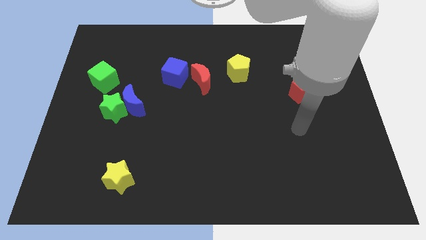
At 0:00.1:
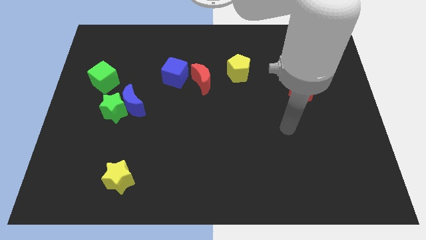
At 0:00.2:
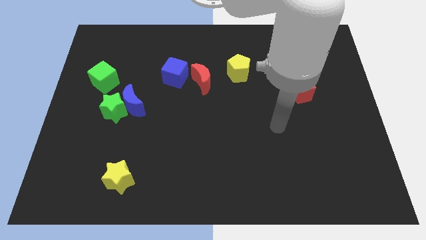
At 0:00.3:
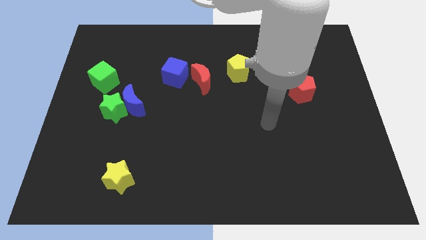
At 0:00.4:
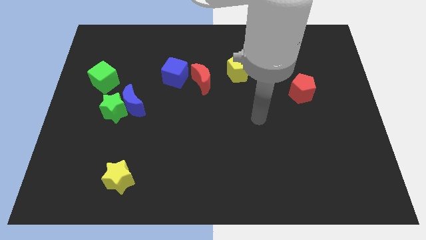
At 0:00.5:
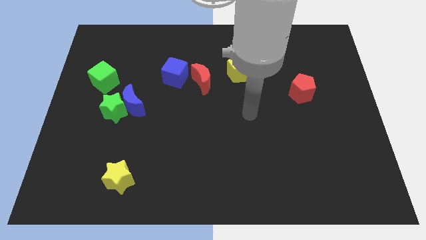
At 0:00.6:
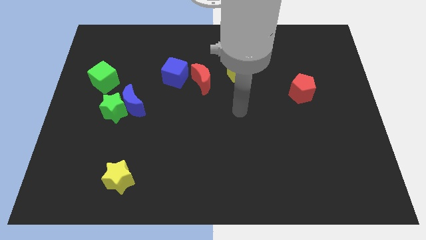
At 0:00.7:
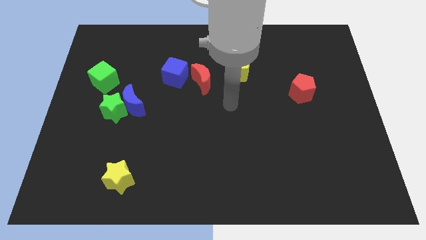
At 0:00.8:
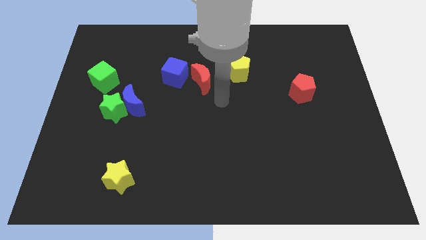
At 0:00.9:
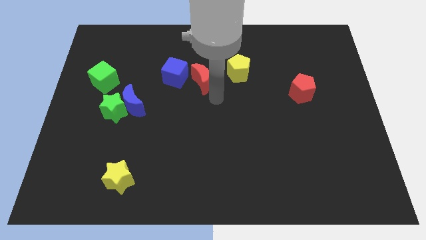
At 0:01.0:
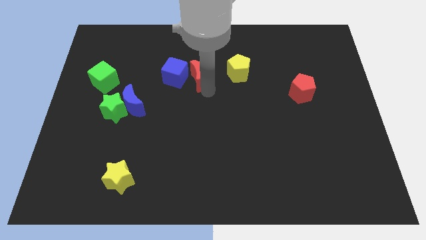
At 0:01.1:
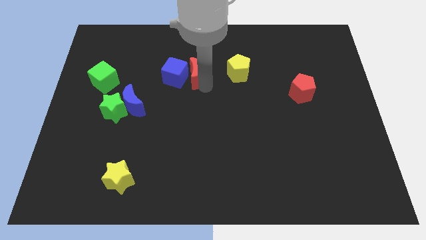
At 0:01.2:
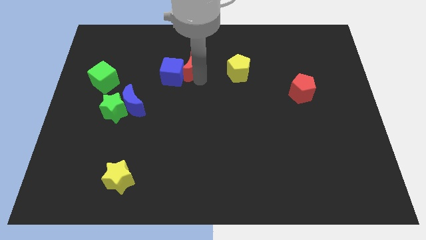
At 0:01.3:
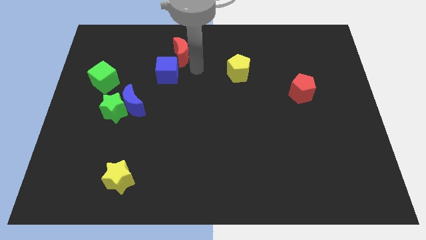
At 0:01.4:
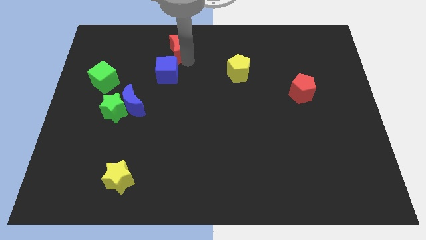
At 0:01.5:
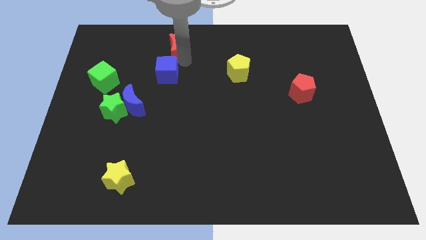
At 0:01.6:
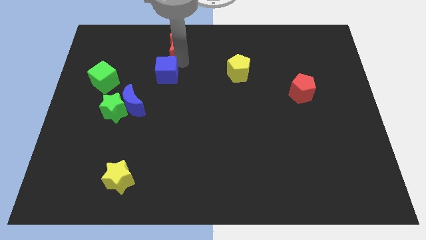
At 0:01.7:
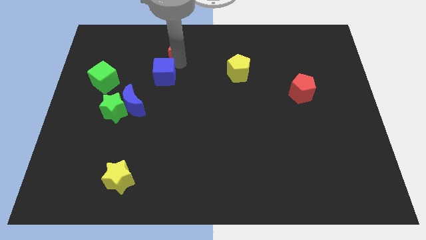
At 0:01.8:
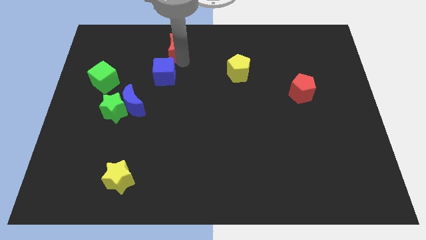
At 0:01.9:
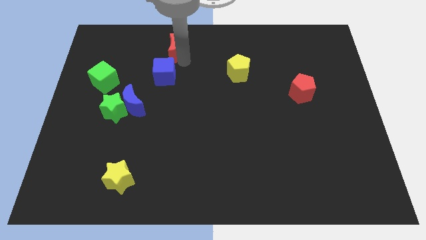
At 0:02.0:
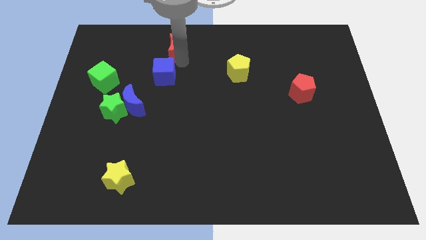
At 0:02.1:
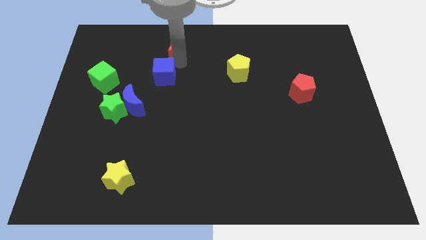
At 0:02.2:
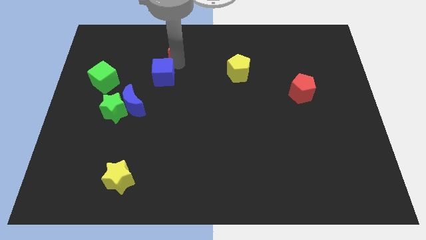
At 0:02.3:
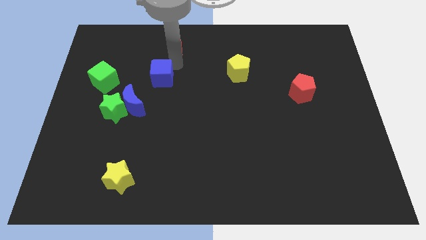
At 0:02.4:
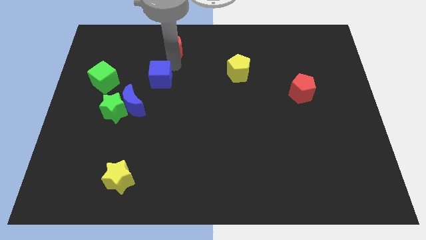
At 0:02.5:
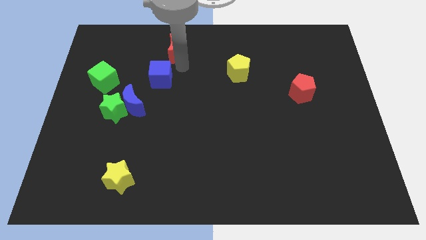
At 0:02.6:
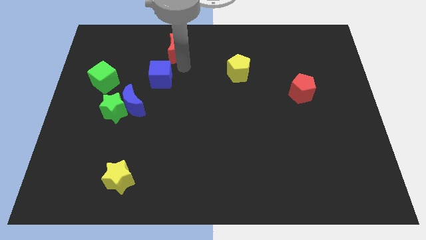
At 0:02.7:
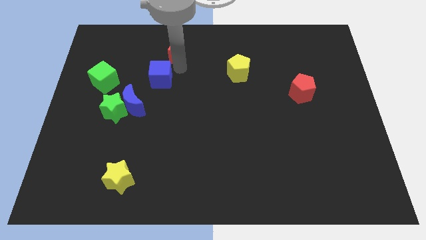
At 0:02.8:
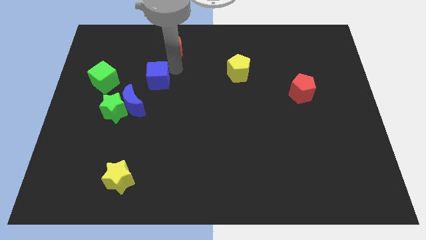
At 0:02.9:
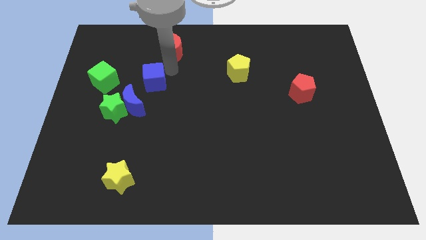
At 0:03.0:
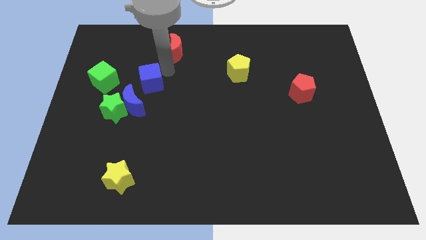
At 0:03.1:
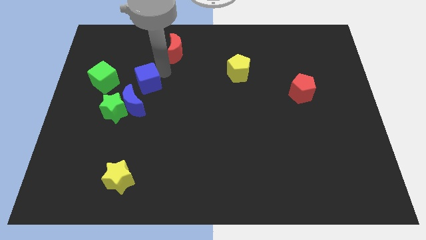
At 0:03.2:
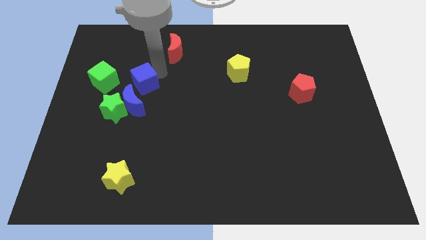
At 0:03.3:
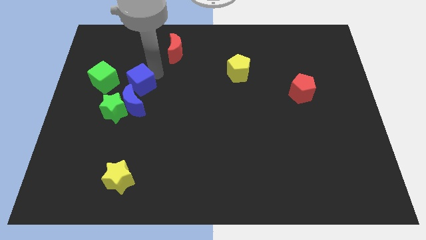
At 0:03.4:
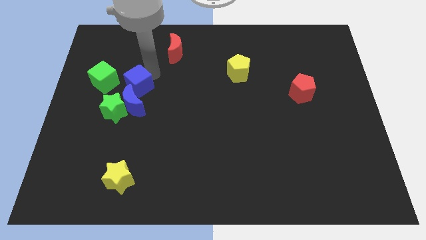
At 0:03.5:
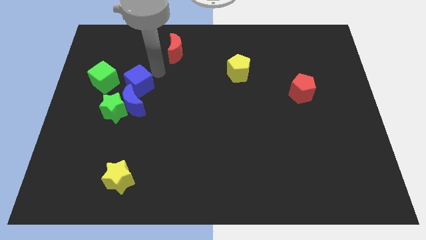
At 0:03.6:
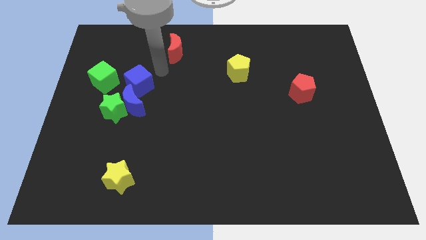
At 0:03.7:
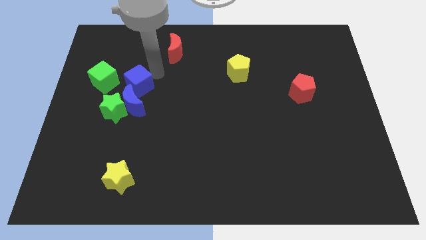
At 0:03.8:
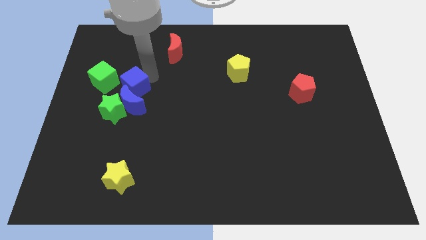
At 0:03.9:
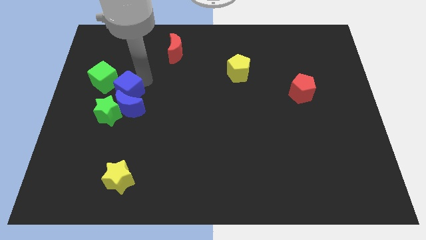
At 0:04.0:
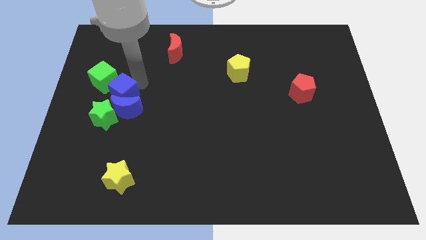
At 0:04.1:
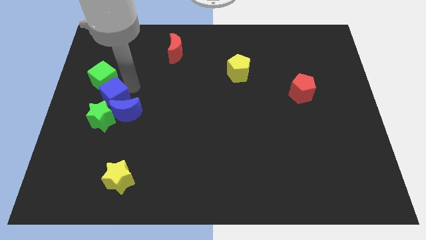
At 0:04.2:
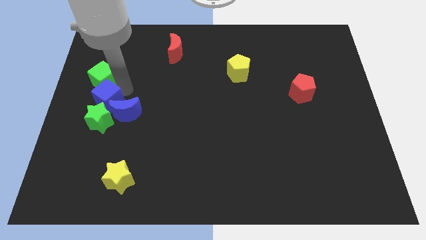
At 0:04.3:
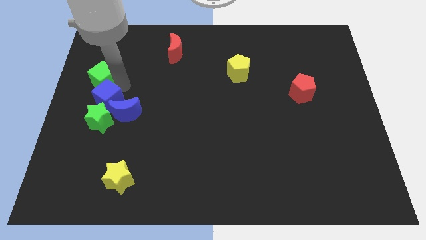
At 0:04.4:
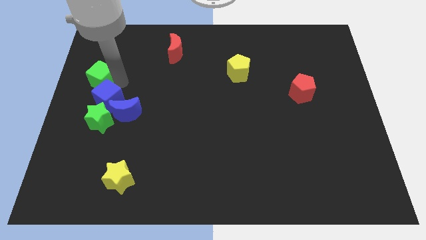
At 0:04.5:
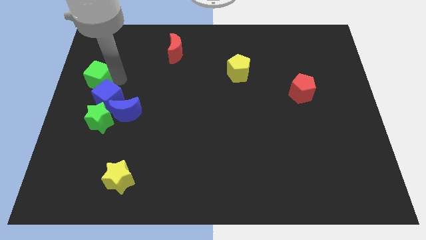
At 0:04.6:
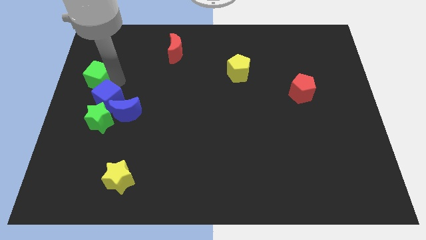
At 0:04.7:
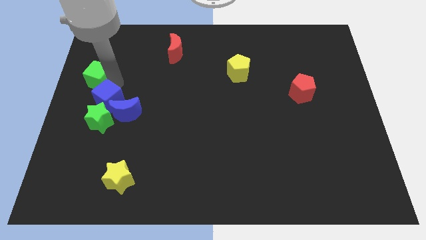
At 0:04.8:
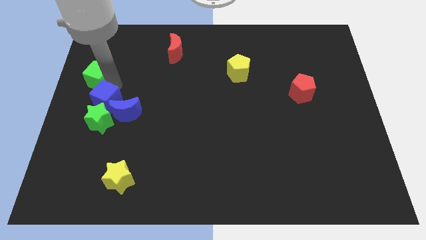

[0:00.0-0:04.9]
put the blue cube close to the green star

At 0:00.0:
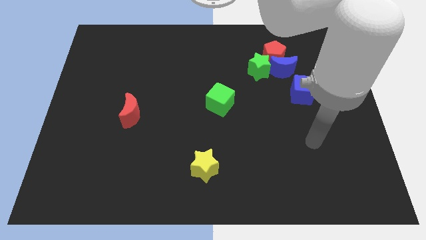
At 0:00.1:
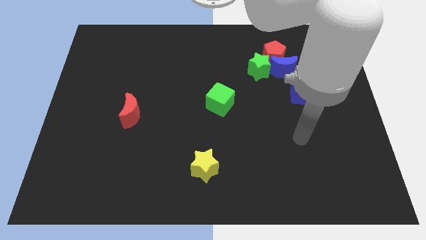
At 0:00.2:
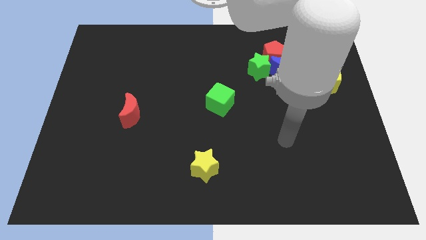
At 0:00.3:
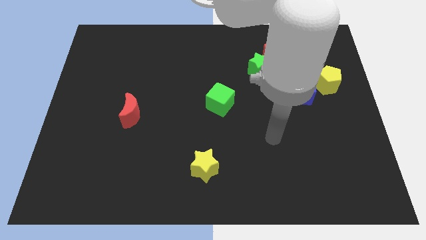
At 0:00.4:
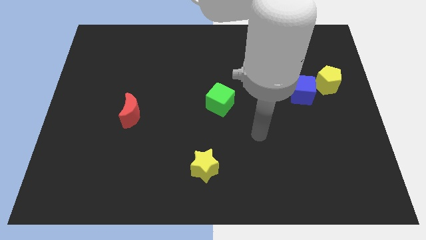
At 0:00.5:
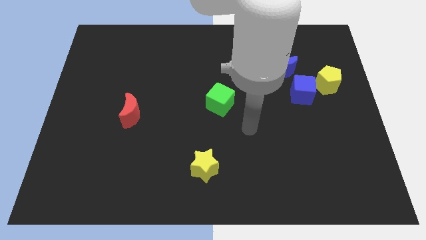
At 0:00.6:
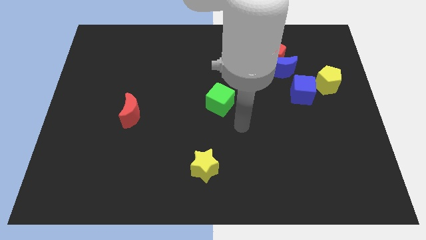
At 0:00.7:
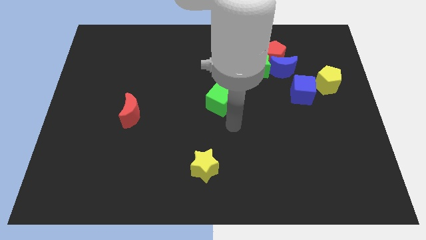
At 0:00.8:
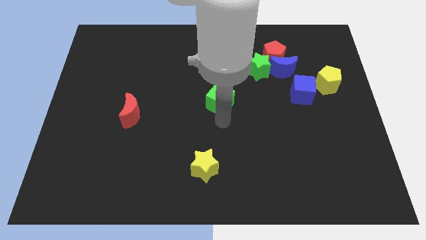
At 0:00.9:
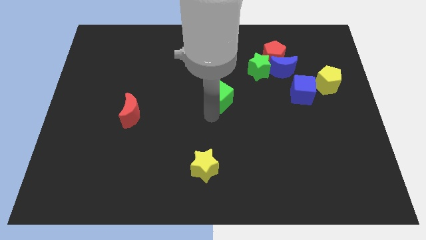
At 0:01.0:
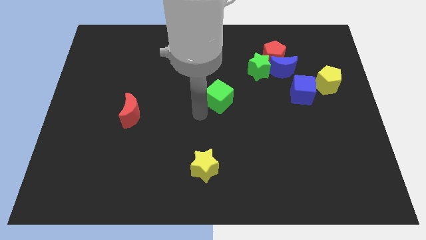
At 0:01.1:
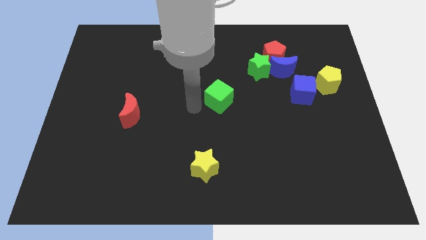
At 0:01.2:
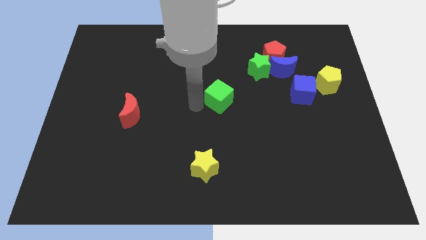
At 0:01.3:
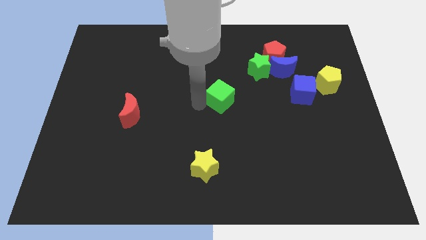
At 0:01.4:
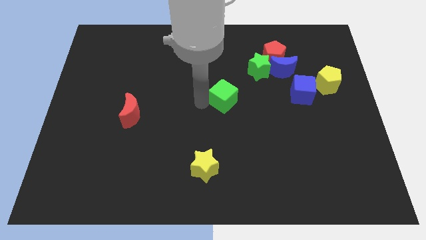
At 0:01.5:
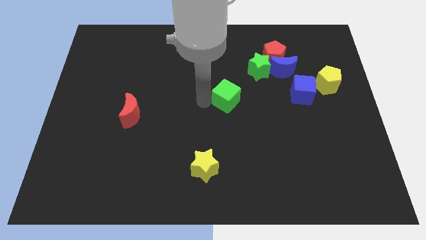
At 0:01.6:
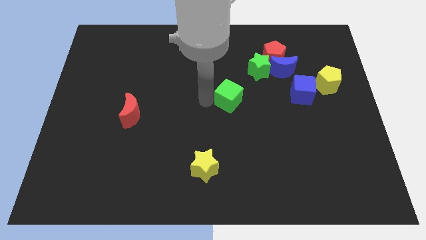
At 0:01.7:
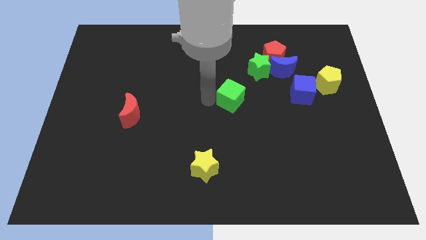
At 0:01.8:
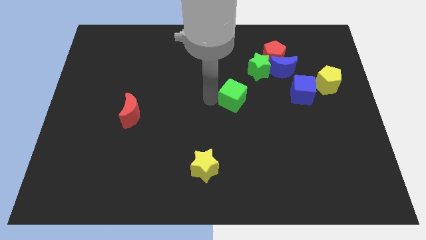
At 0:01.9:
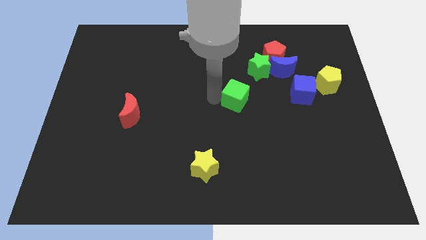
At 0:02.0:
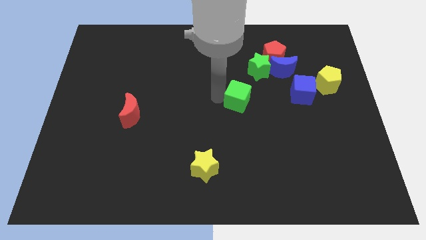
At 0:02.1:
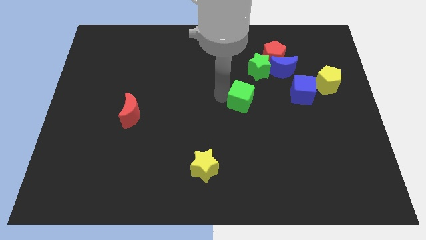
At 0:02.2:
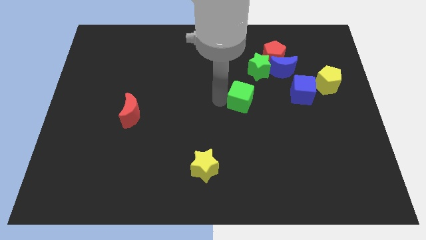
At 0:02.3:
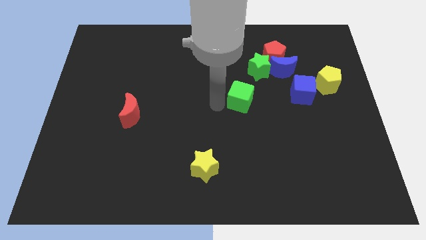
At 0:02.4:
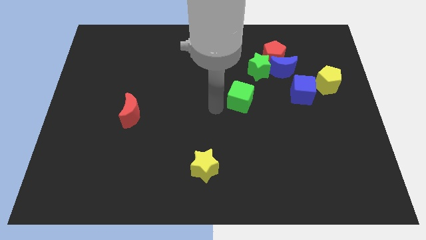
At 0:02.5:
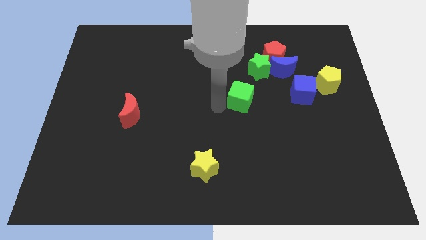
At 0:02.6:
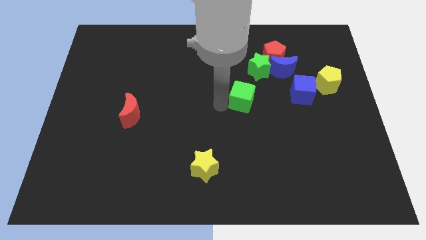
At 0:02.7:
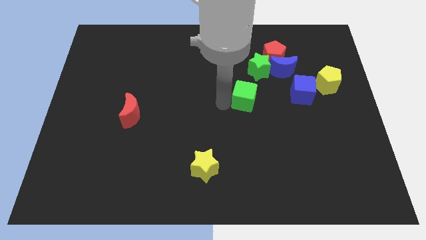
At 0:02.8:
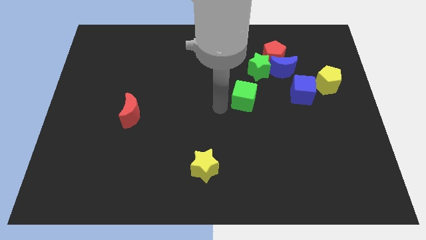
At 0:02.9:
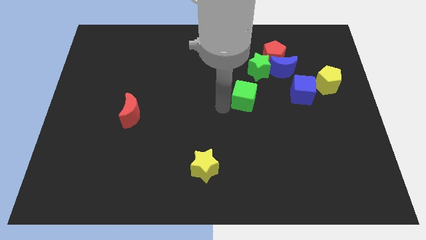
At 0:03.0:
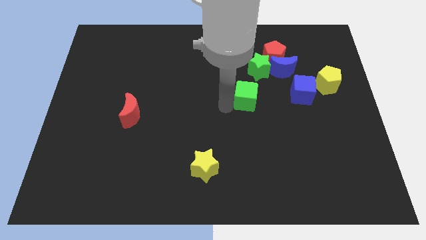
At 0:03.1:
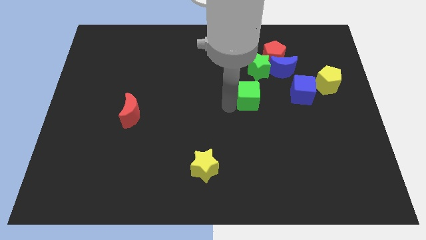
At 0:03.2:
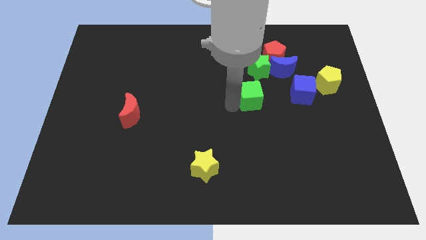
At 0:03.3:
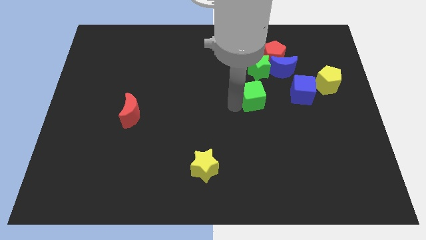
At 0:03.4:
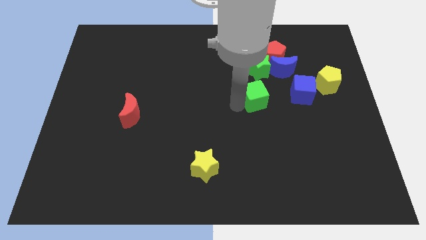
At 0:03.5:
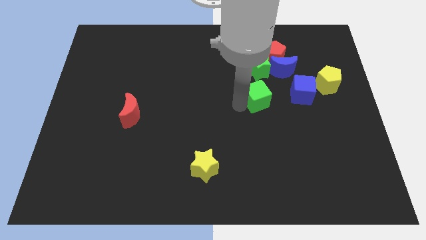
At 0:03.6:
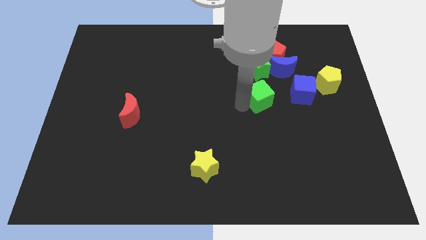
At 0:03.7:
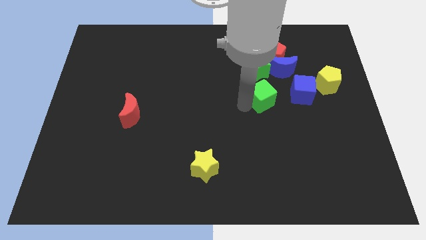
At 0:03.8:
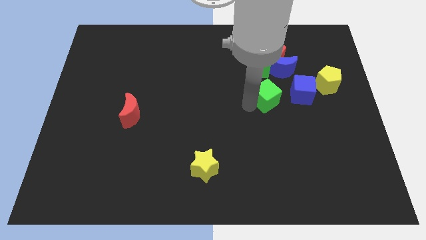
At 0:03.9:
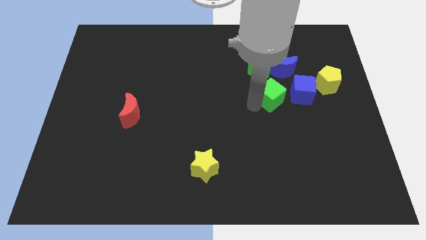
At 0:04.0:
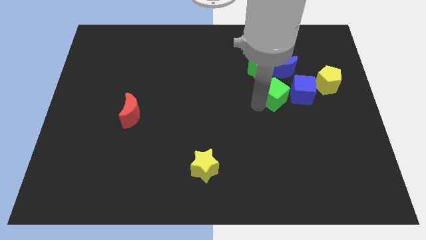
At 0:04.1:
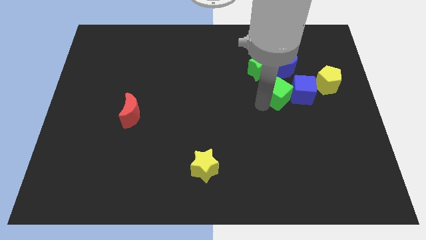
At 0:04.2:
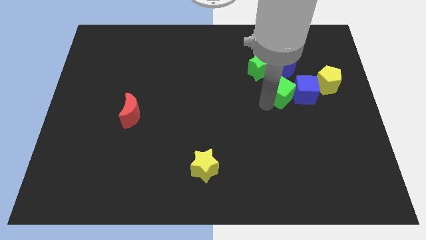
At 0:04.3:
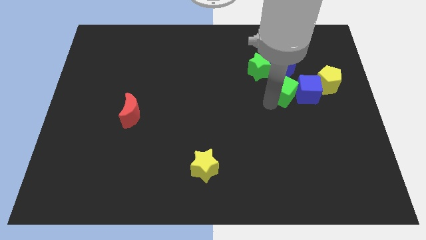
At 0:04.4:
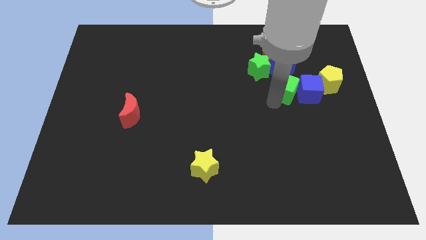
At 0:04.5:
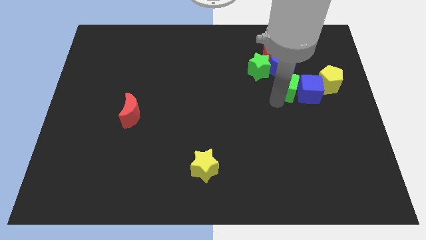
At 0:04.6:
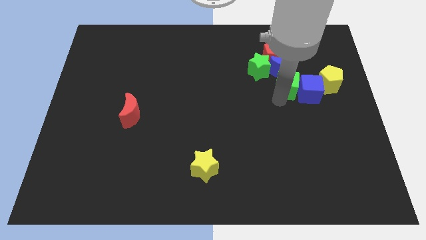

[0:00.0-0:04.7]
move the green cube towards the blue moon
